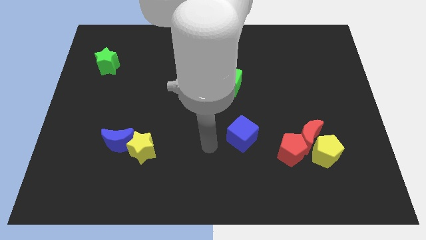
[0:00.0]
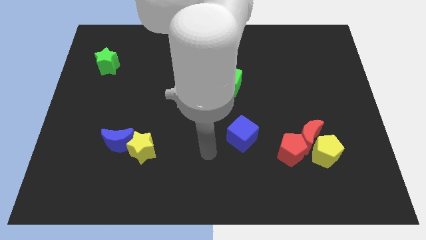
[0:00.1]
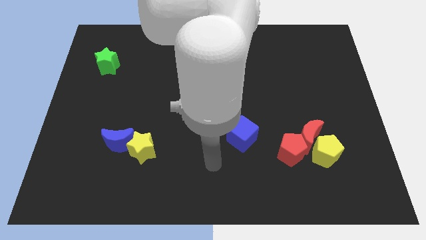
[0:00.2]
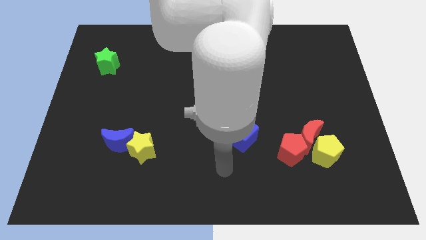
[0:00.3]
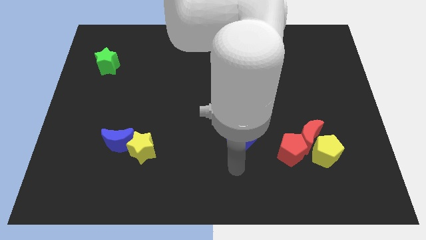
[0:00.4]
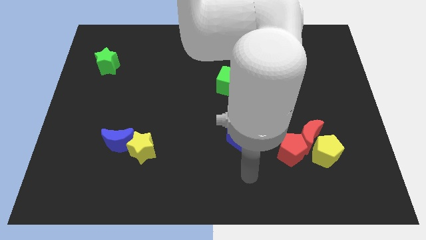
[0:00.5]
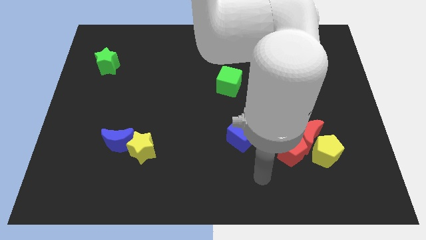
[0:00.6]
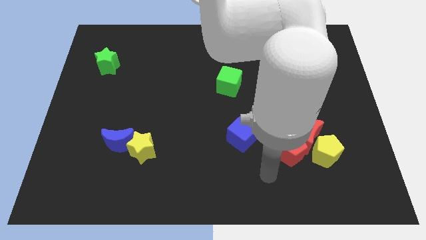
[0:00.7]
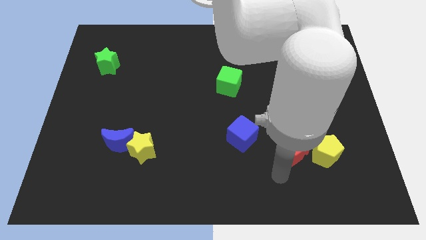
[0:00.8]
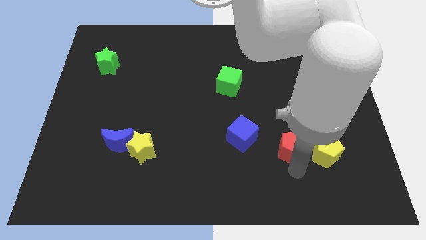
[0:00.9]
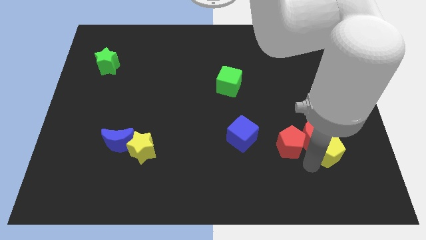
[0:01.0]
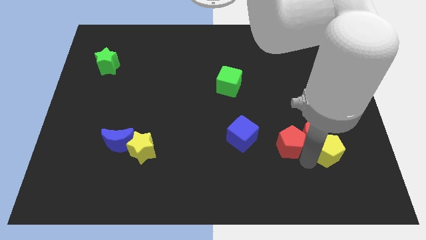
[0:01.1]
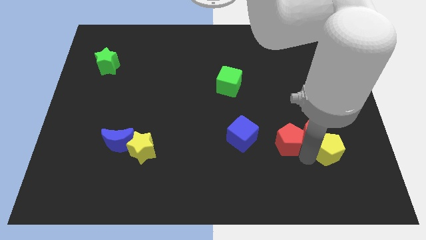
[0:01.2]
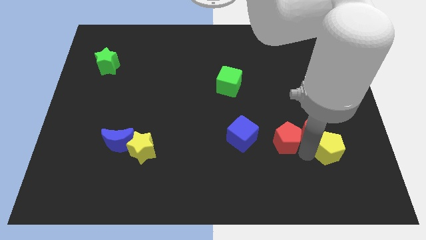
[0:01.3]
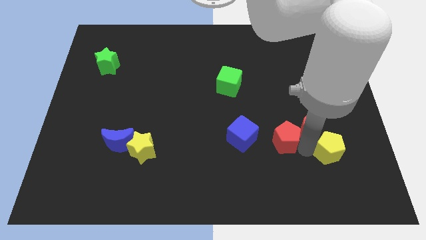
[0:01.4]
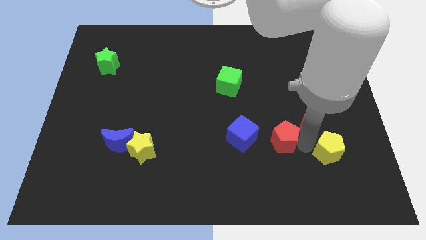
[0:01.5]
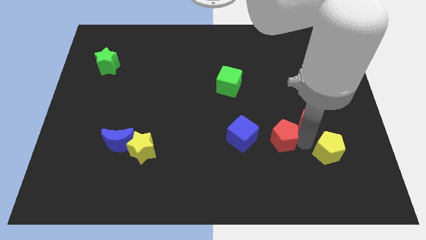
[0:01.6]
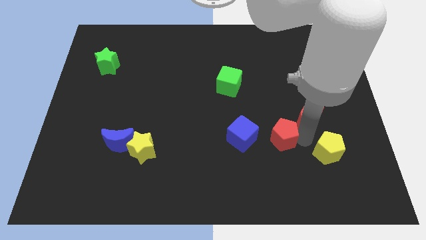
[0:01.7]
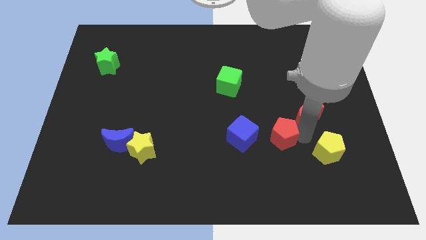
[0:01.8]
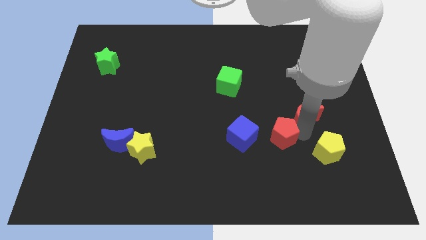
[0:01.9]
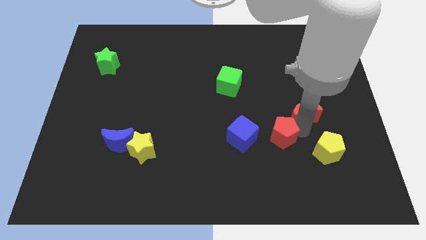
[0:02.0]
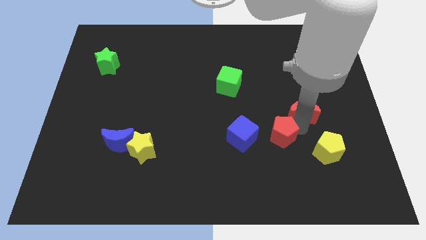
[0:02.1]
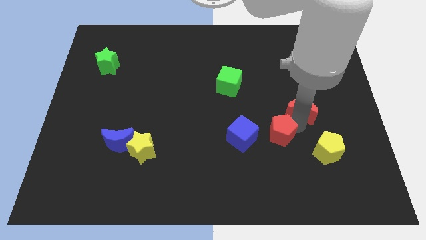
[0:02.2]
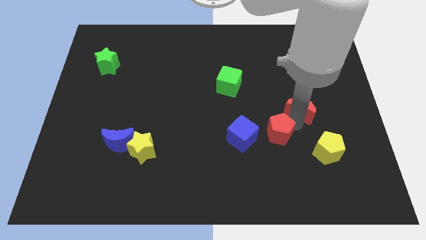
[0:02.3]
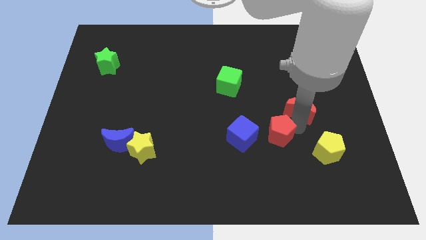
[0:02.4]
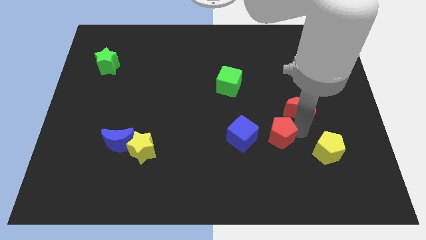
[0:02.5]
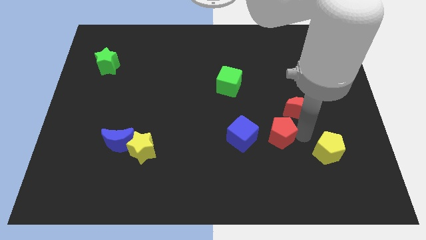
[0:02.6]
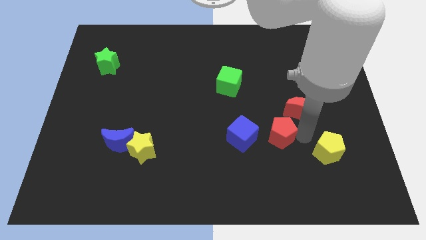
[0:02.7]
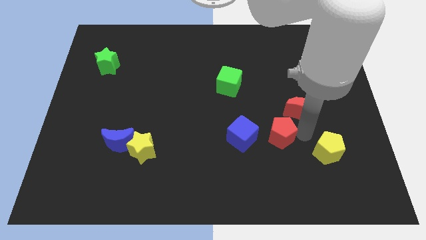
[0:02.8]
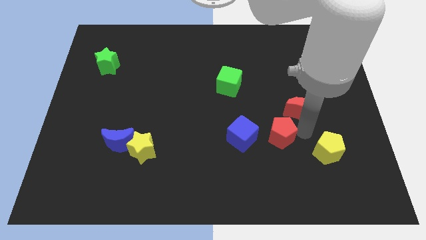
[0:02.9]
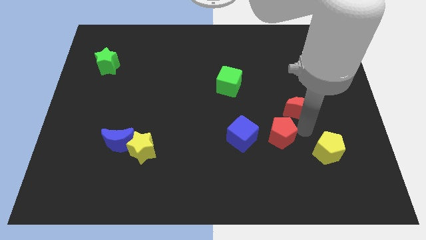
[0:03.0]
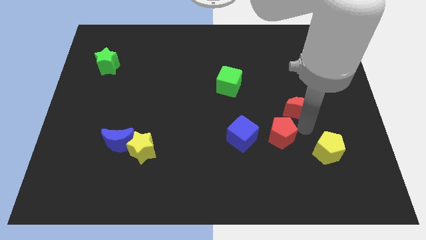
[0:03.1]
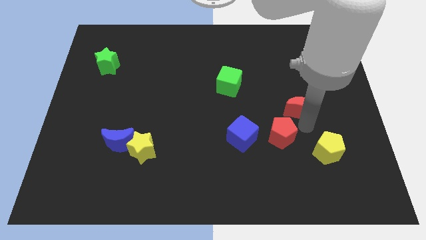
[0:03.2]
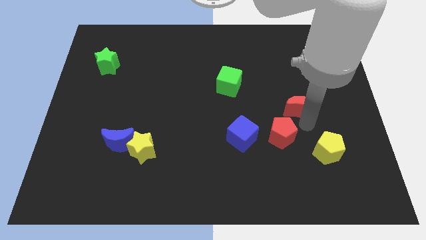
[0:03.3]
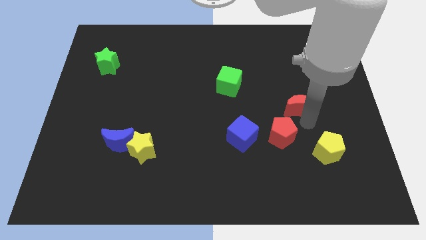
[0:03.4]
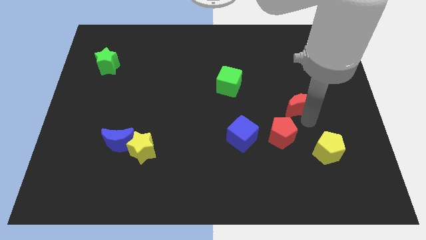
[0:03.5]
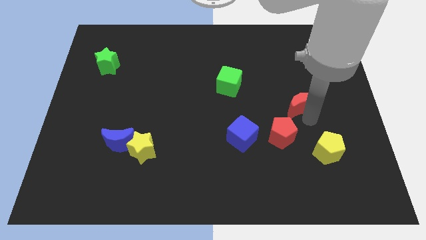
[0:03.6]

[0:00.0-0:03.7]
separate the red moon from the yellow pentagon and red pentagon

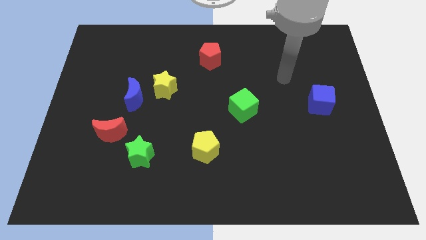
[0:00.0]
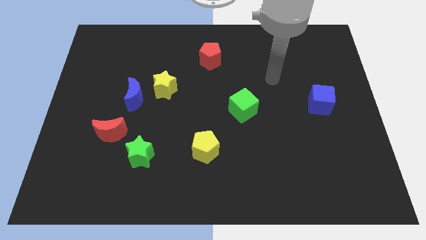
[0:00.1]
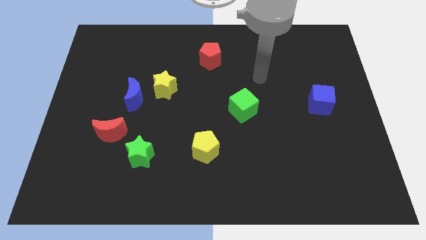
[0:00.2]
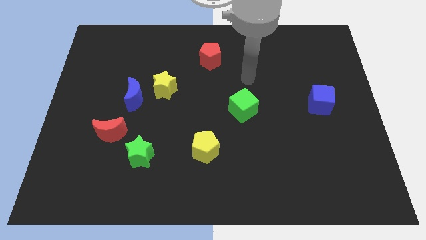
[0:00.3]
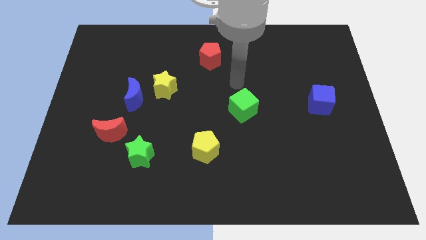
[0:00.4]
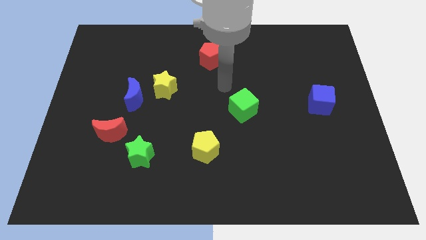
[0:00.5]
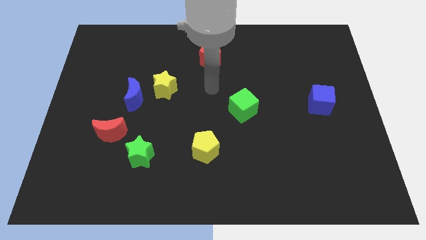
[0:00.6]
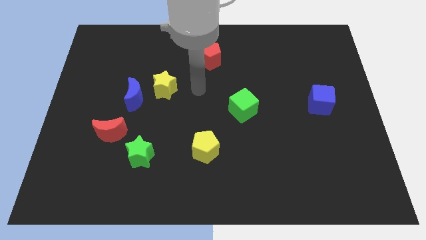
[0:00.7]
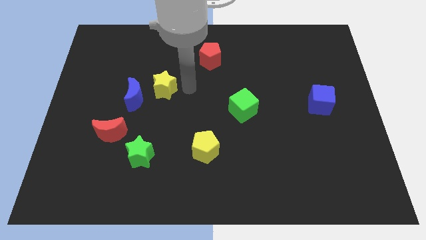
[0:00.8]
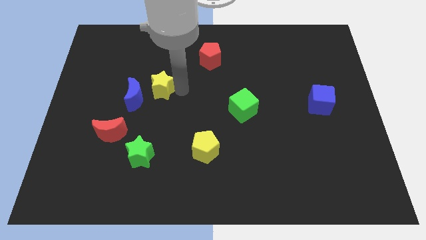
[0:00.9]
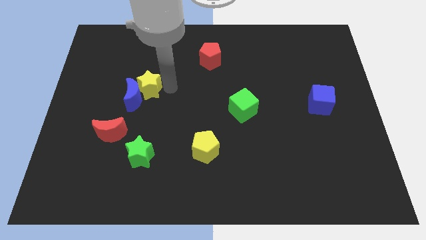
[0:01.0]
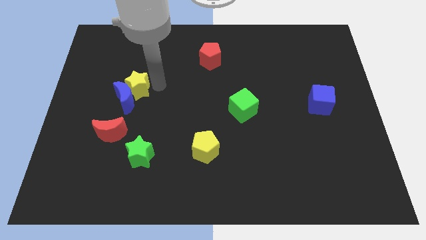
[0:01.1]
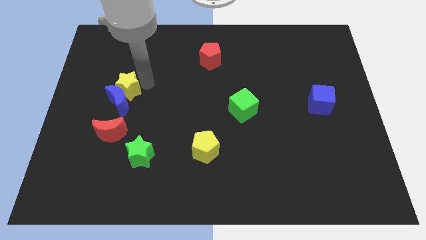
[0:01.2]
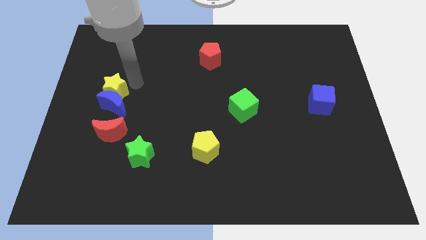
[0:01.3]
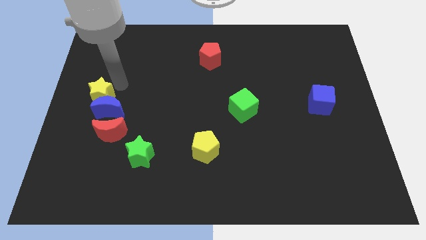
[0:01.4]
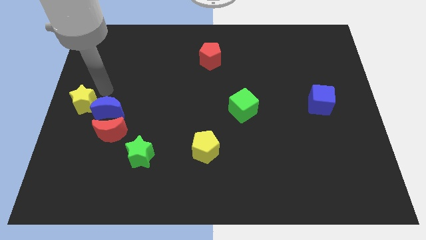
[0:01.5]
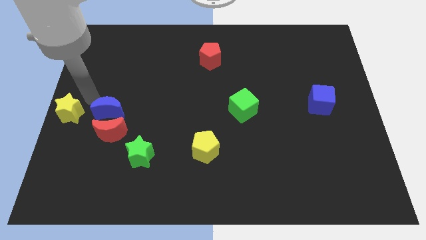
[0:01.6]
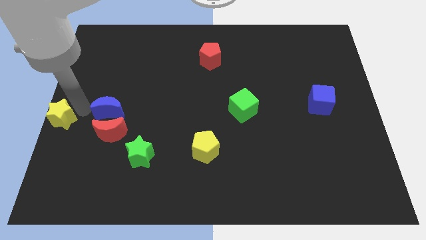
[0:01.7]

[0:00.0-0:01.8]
move the blue moon away from the yellow star

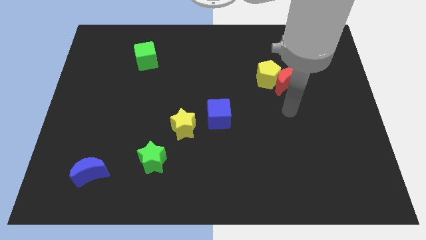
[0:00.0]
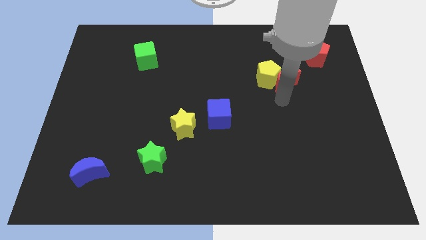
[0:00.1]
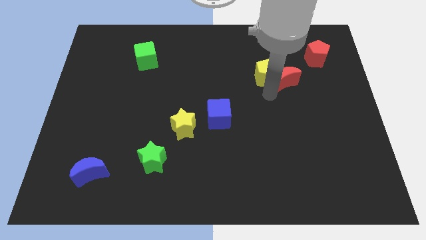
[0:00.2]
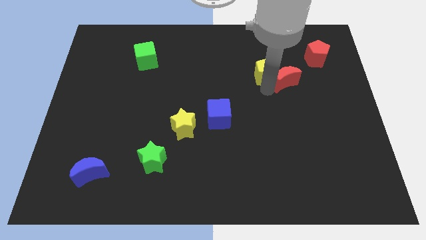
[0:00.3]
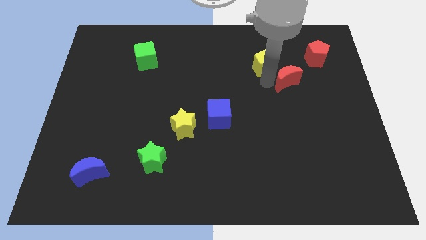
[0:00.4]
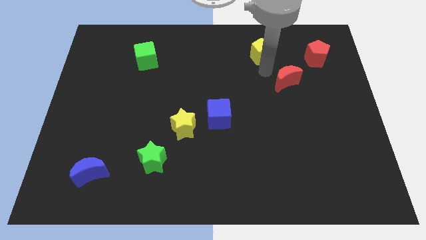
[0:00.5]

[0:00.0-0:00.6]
pull the red moon apart from the yellow pentagon

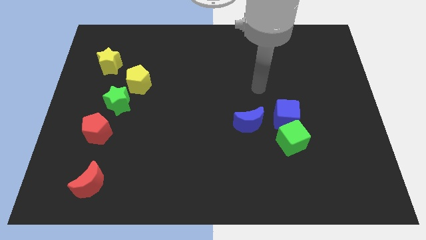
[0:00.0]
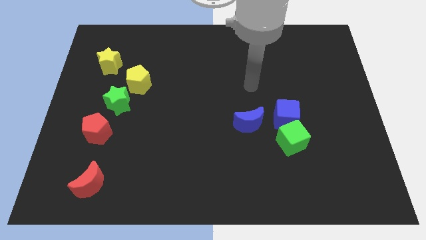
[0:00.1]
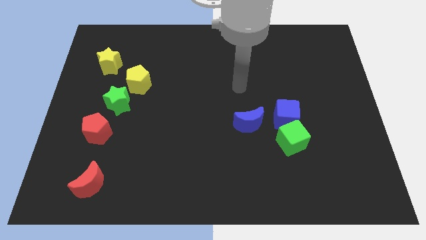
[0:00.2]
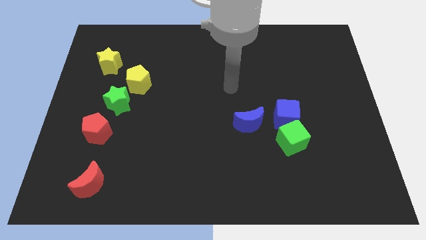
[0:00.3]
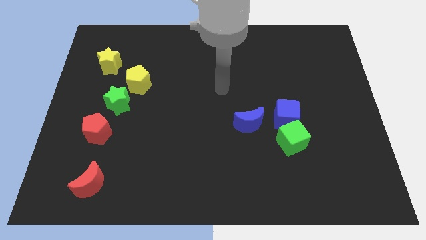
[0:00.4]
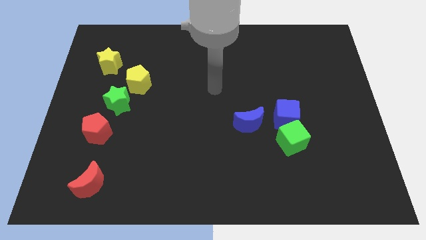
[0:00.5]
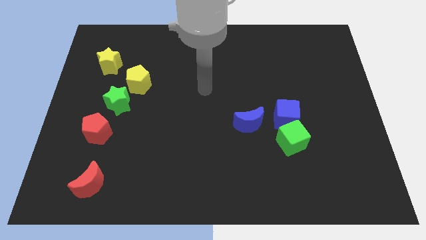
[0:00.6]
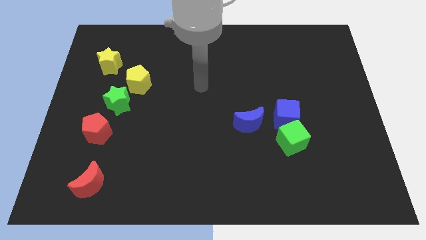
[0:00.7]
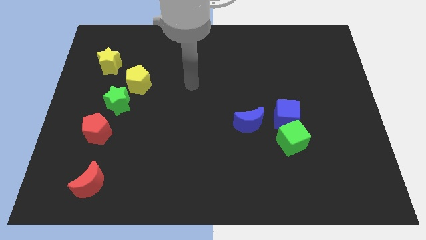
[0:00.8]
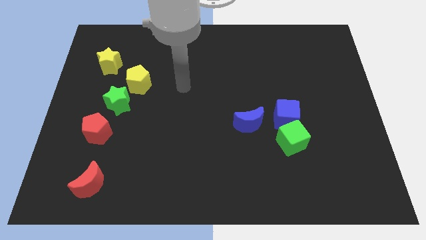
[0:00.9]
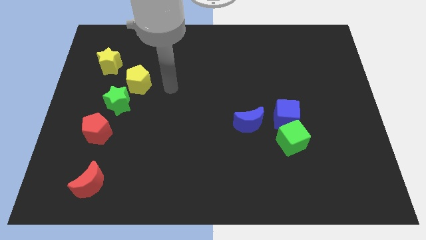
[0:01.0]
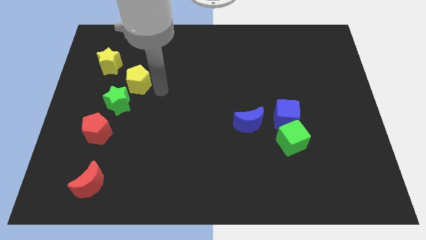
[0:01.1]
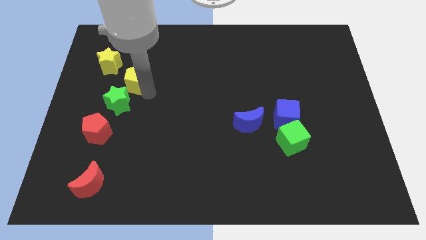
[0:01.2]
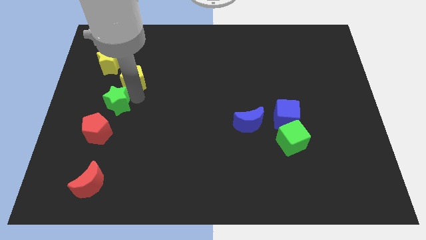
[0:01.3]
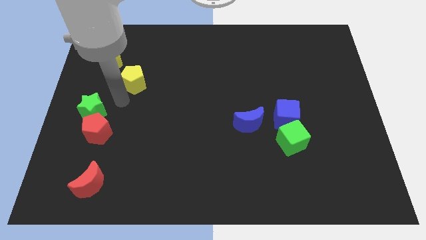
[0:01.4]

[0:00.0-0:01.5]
separate the yellow pentagon from the green star

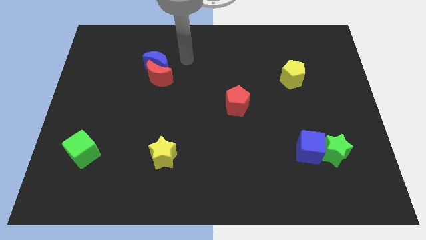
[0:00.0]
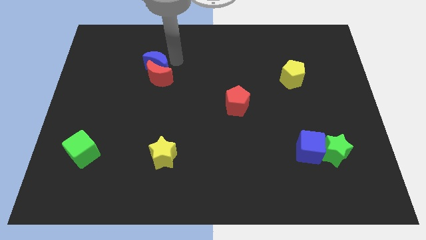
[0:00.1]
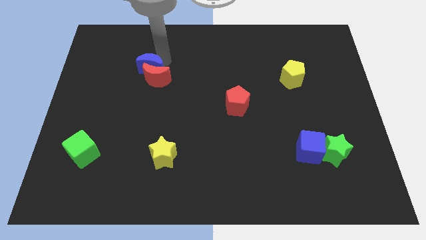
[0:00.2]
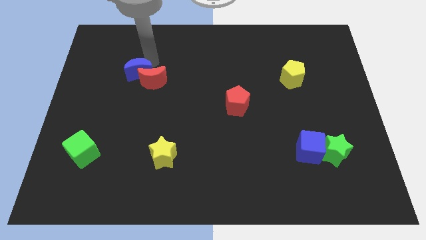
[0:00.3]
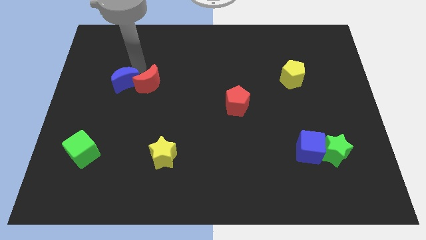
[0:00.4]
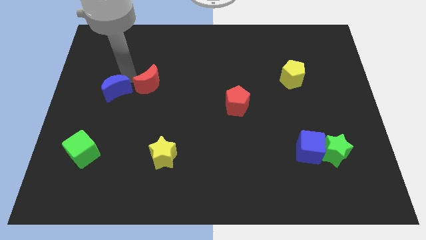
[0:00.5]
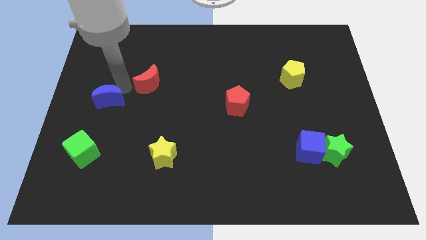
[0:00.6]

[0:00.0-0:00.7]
pull the red moon apart from the blue moon

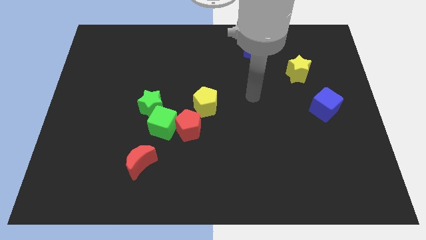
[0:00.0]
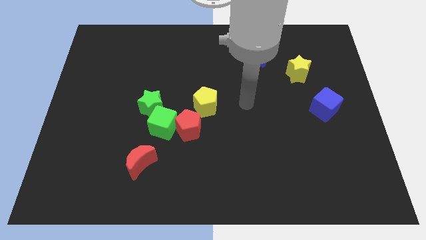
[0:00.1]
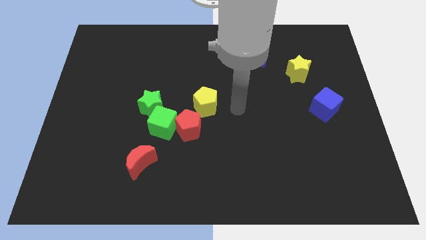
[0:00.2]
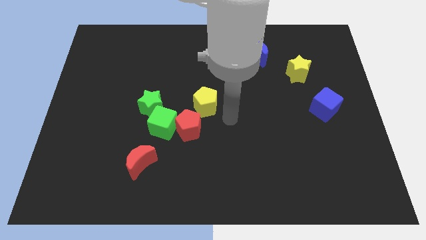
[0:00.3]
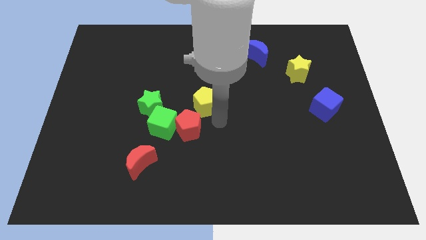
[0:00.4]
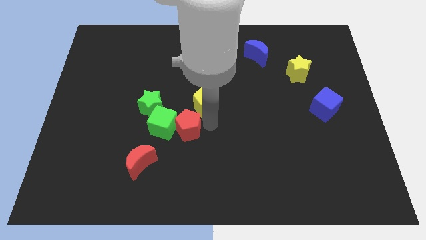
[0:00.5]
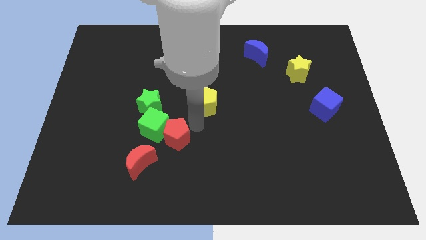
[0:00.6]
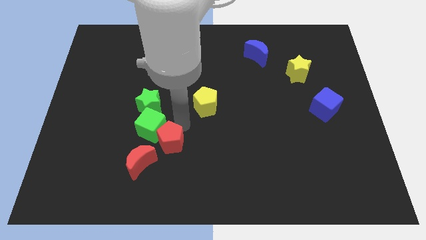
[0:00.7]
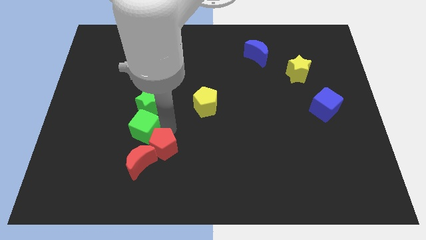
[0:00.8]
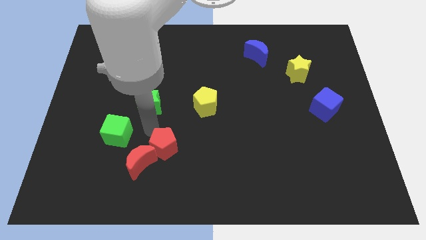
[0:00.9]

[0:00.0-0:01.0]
separate the green star from the green cube
